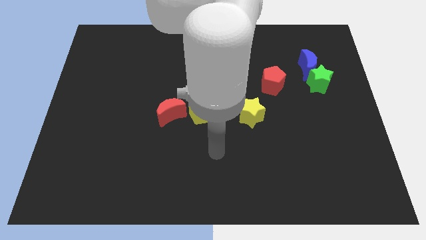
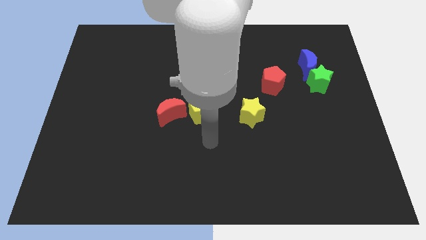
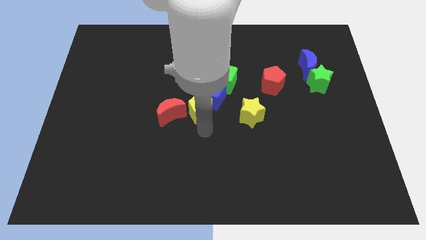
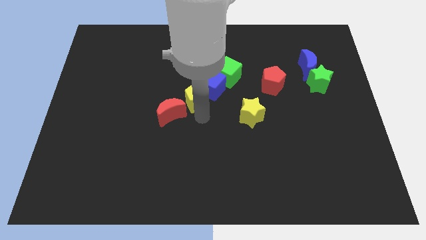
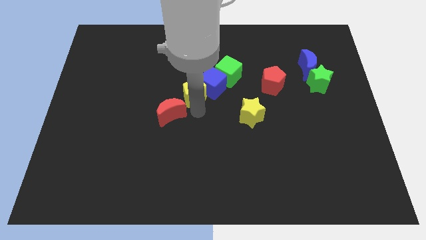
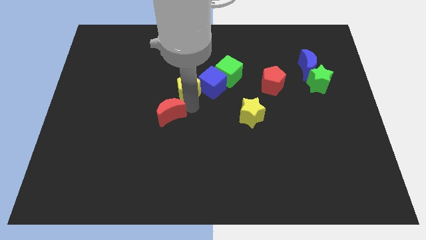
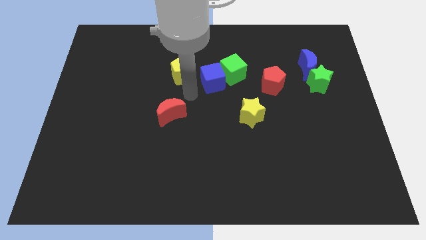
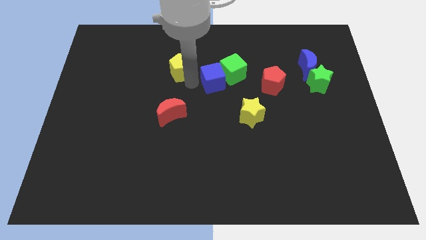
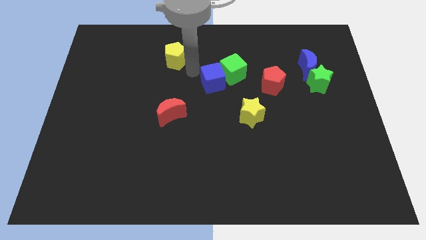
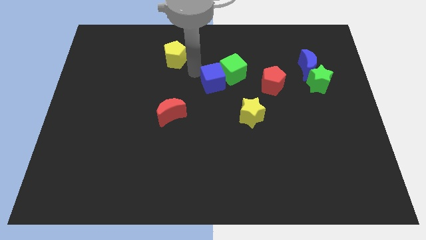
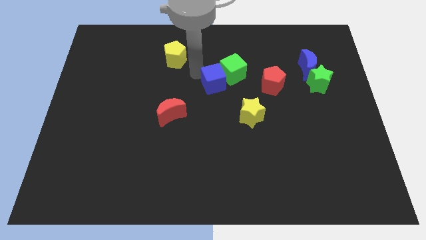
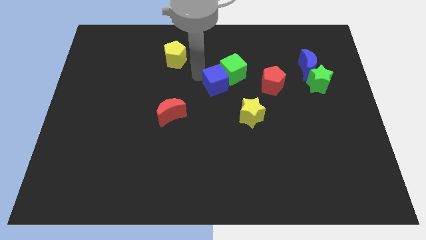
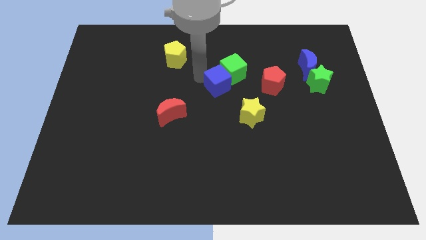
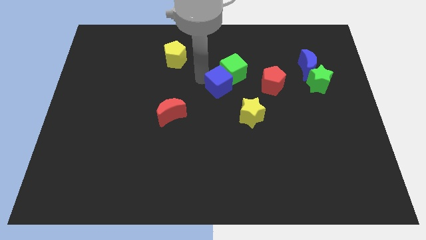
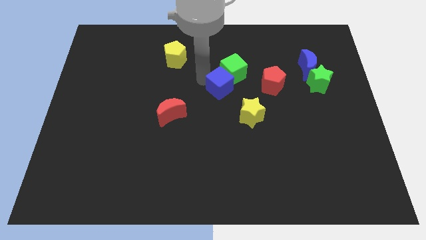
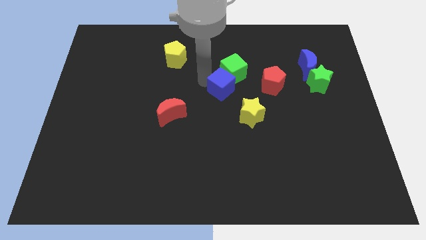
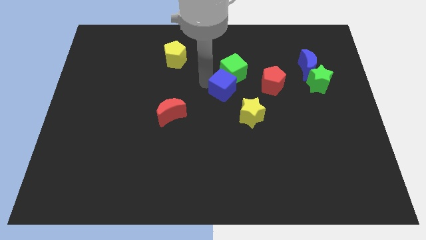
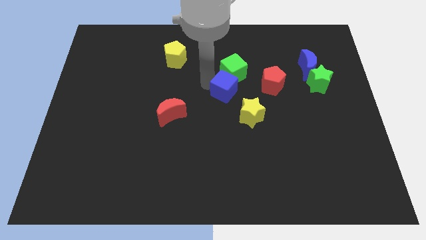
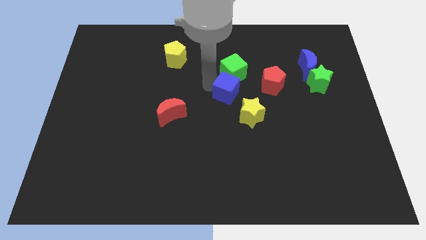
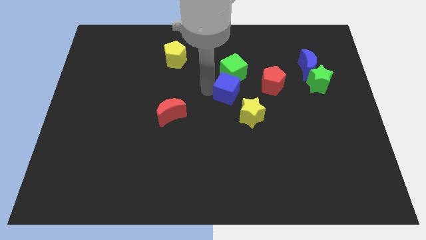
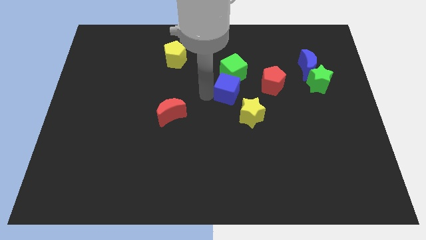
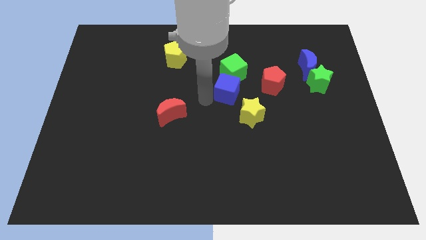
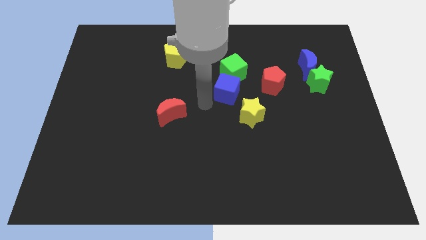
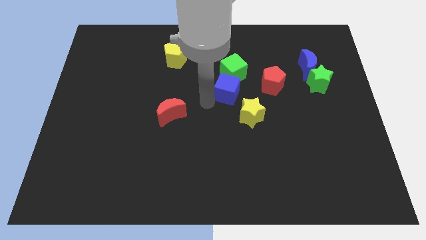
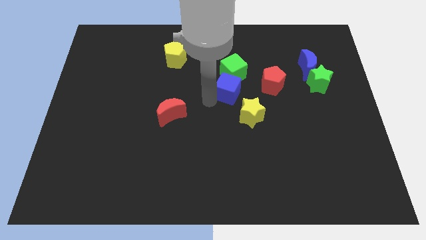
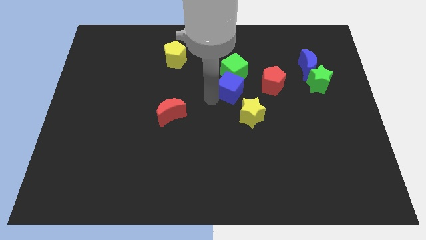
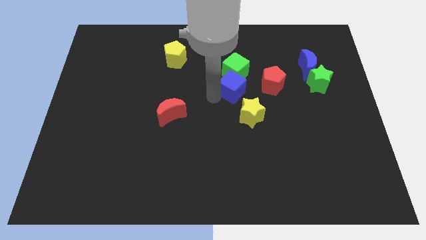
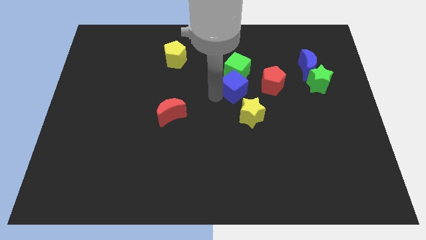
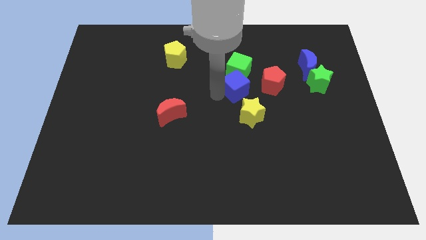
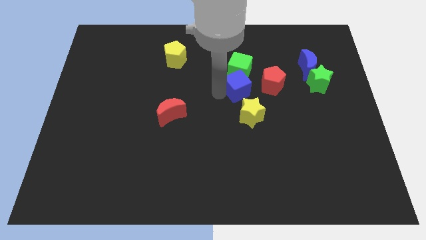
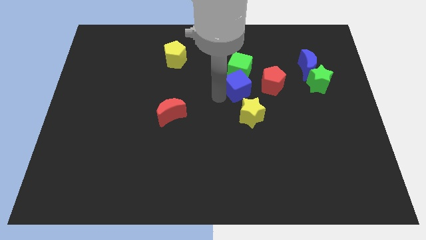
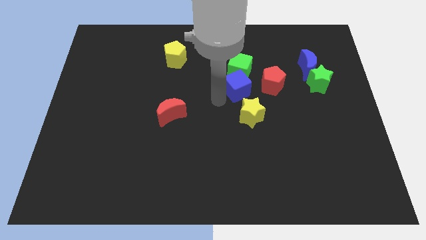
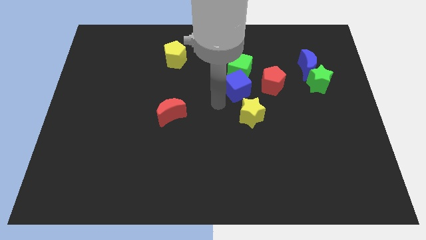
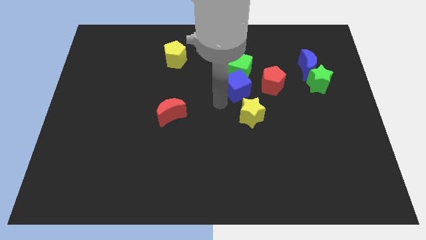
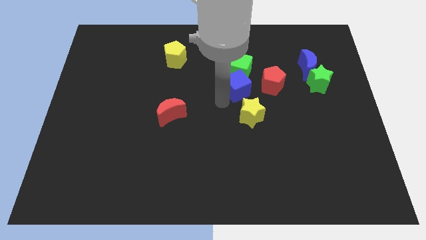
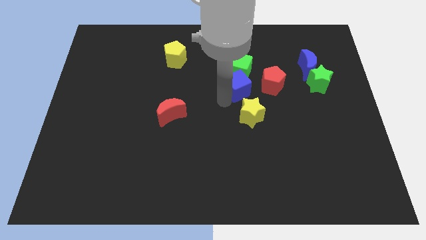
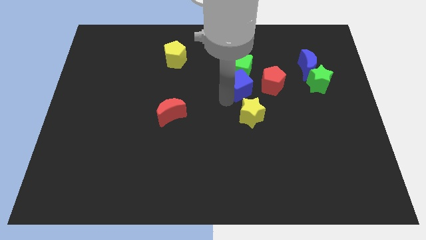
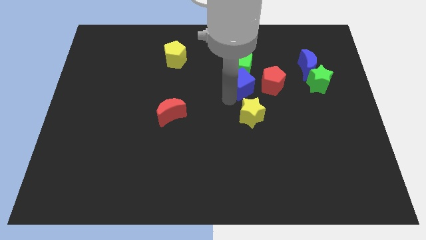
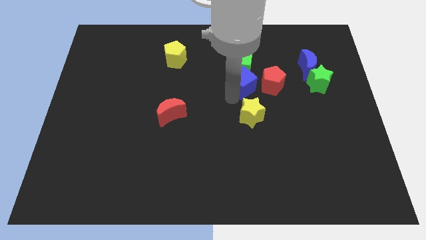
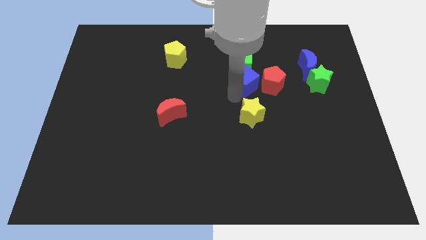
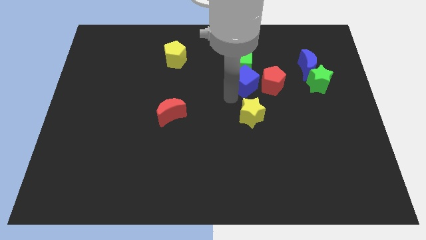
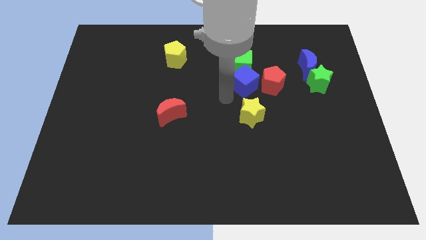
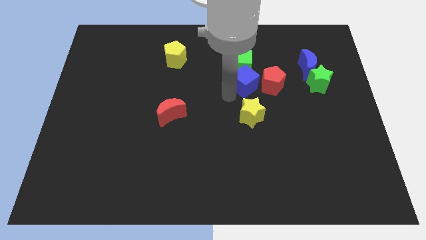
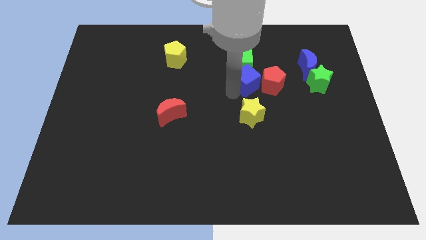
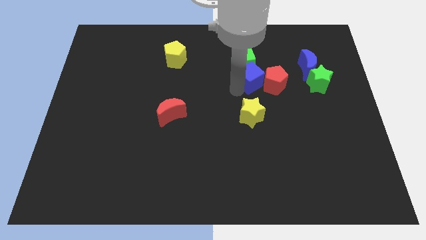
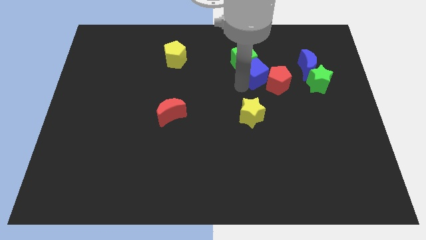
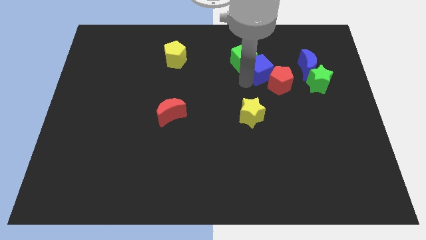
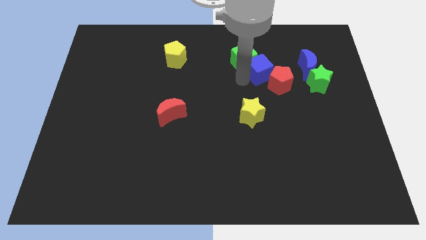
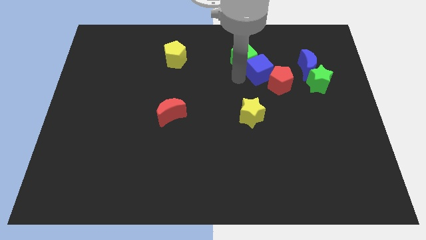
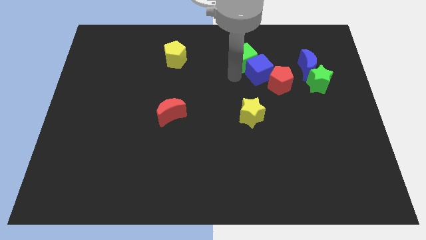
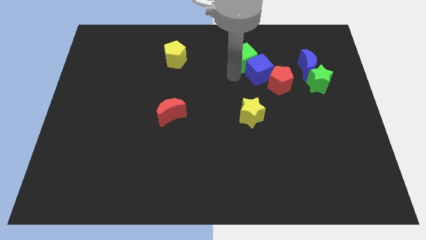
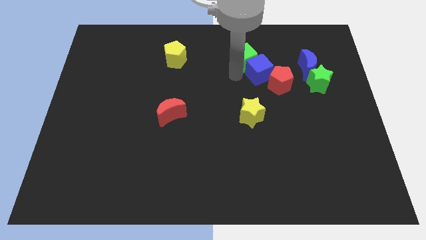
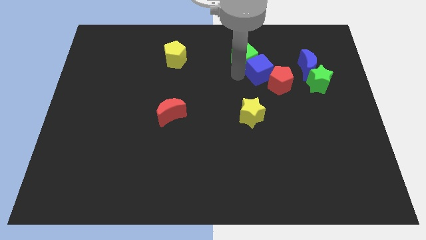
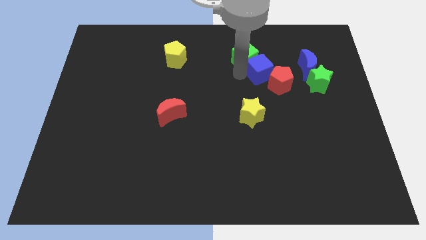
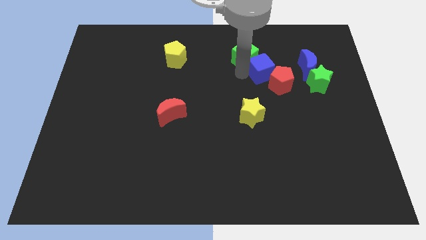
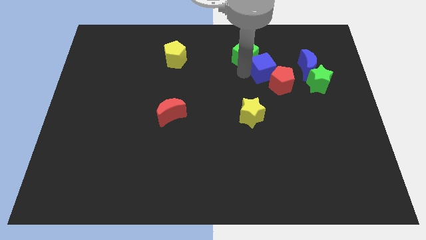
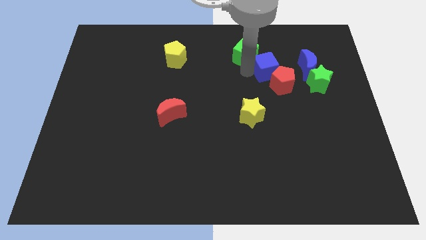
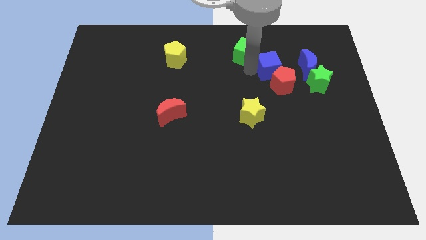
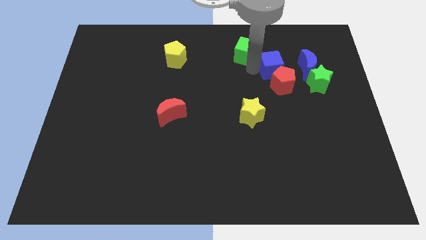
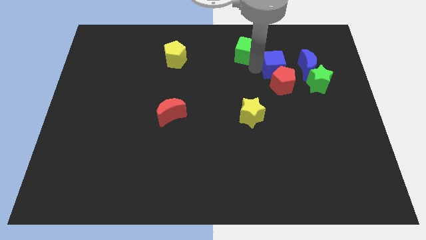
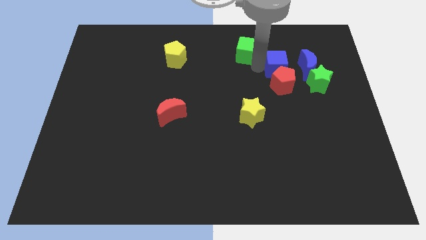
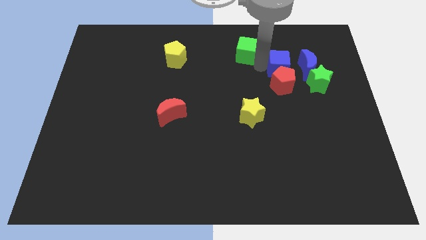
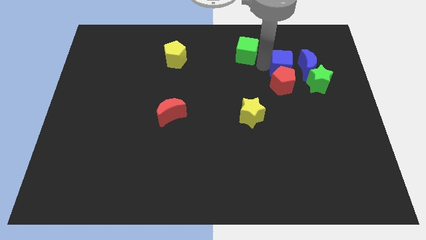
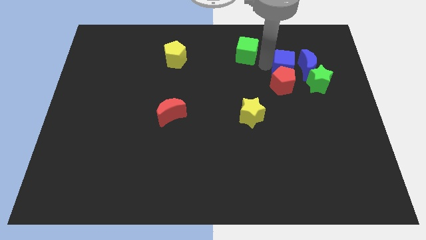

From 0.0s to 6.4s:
put the blue cube towards the blue moon

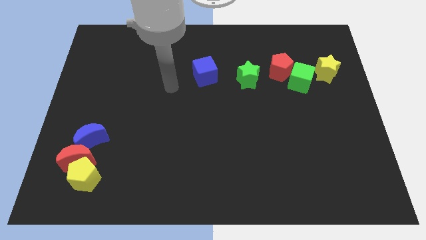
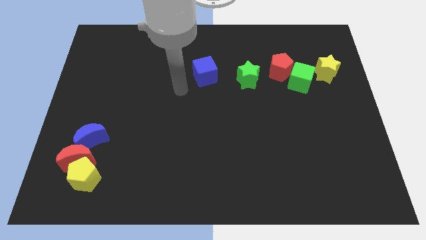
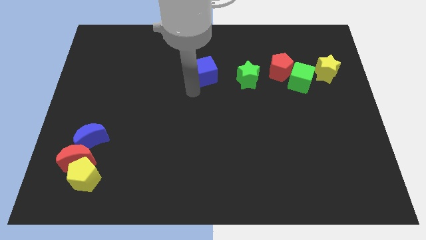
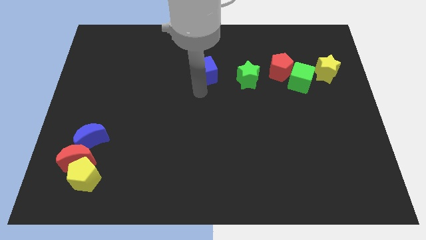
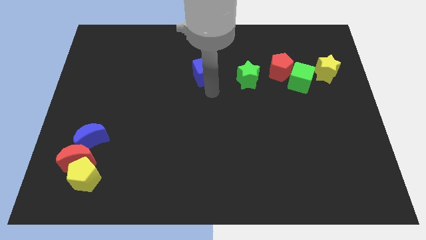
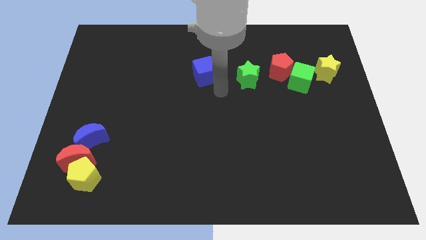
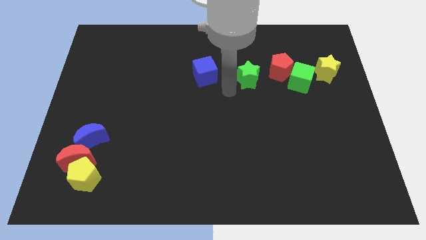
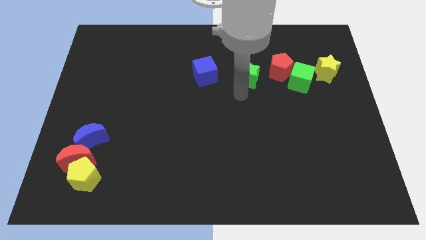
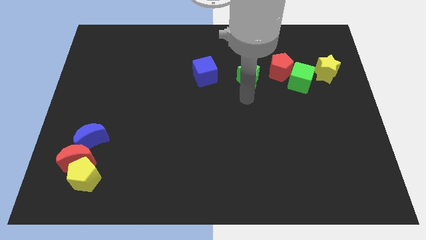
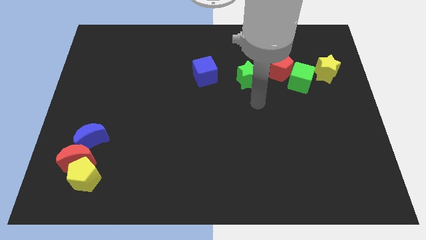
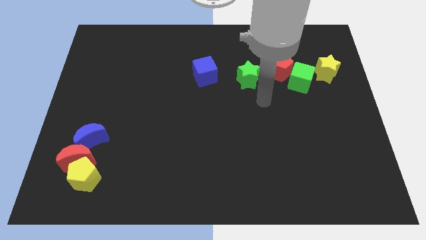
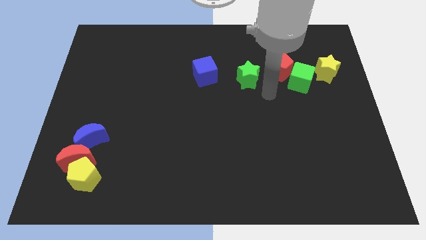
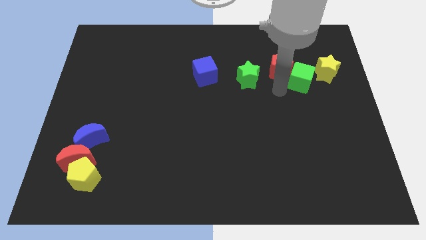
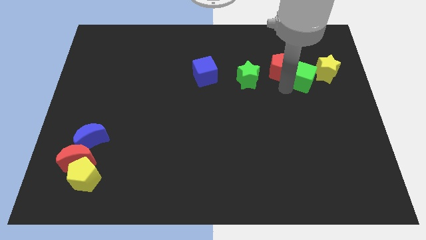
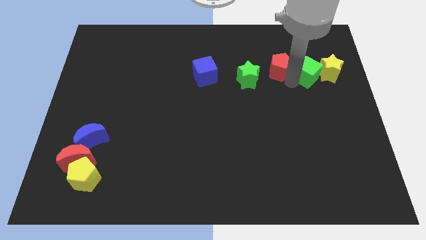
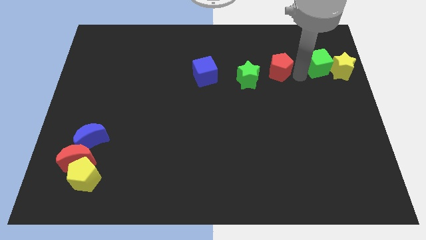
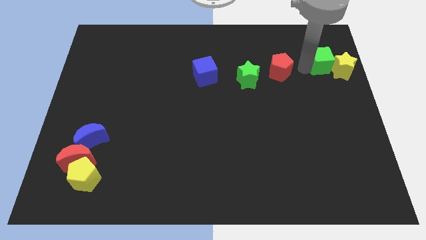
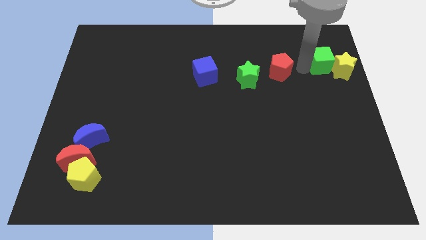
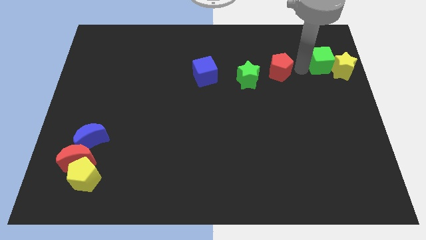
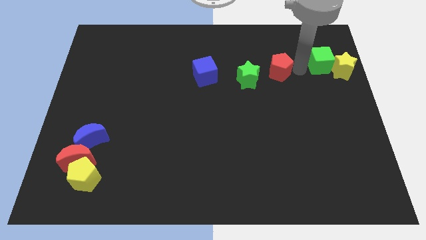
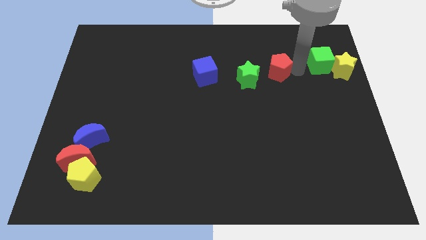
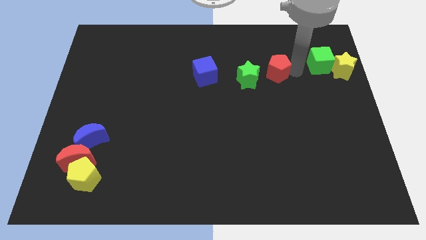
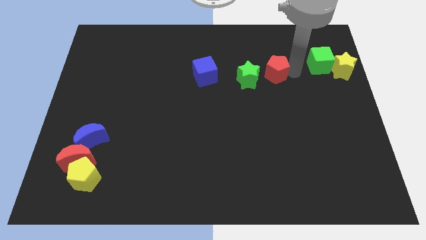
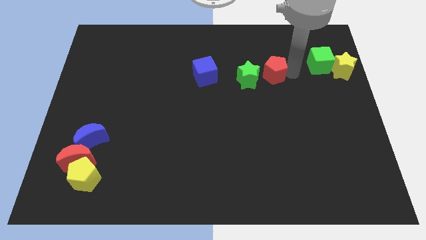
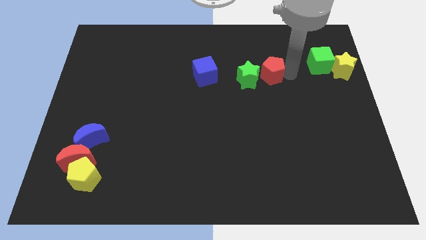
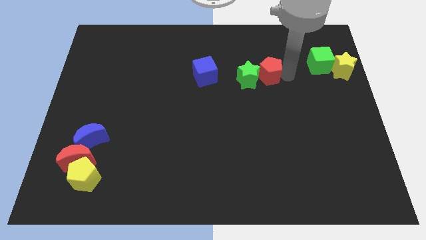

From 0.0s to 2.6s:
put the red pentagon to the green star
